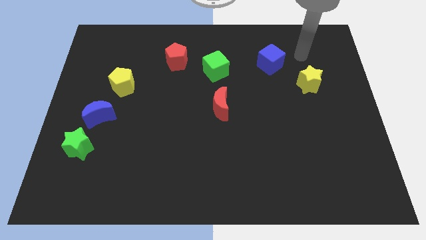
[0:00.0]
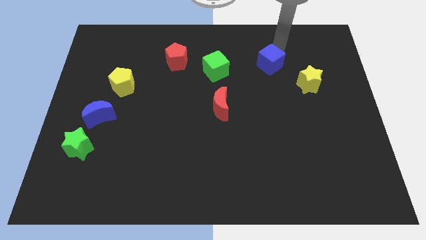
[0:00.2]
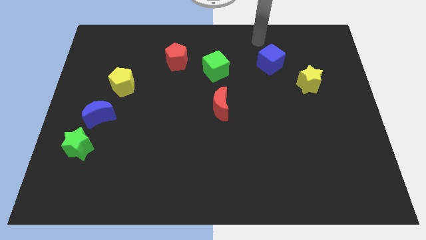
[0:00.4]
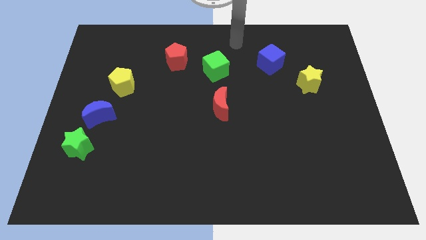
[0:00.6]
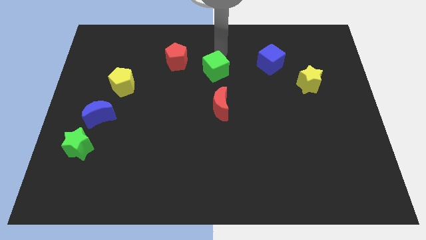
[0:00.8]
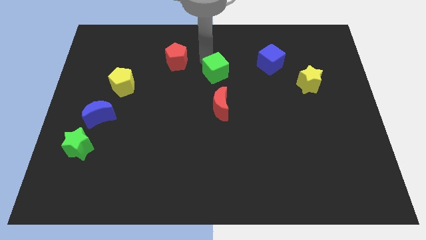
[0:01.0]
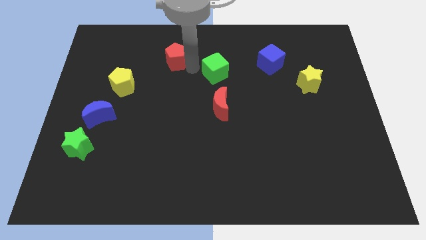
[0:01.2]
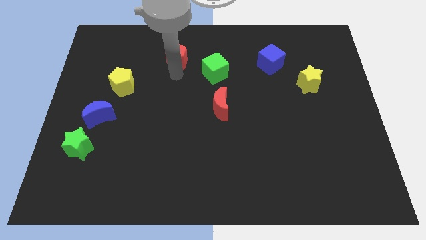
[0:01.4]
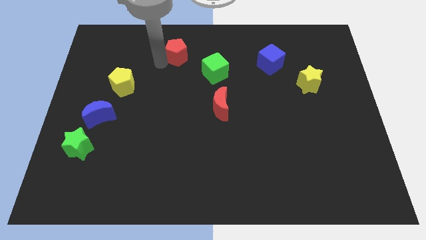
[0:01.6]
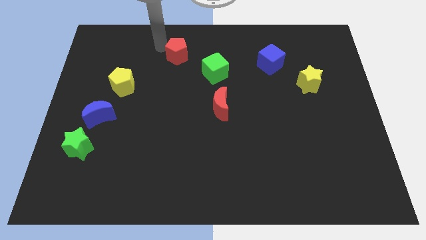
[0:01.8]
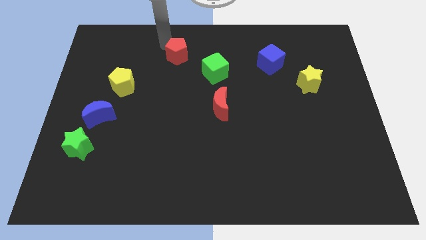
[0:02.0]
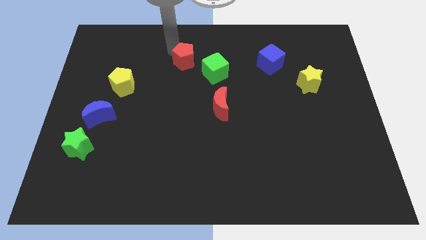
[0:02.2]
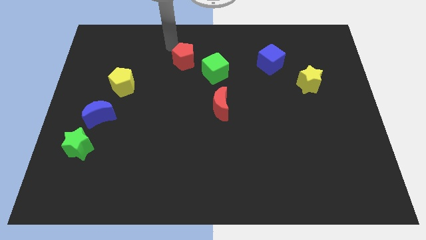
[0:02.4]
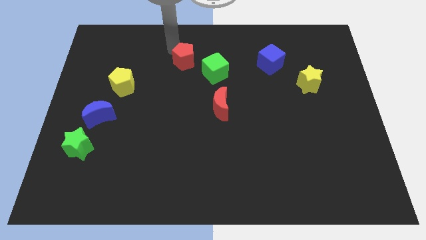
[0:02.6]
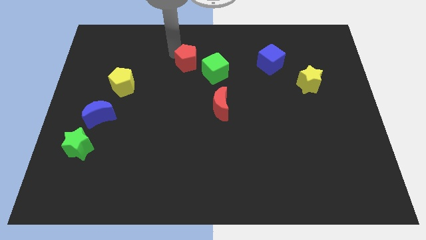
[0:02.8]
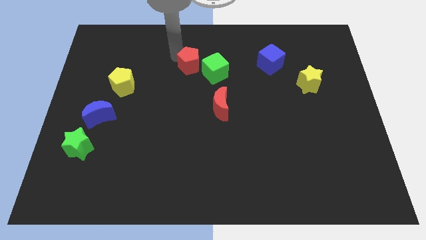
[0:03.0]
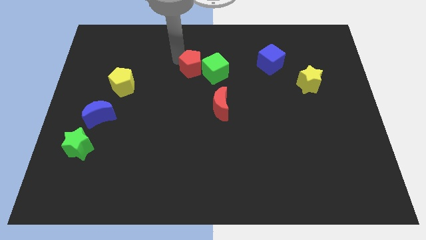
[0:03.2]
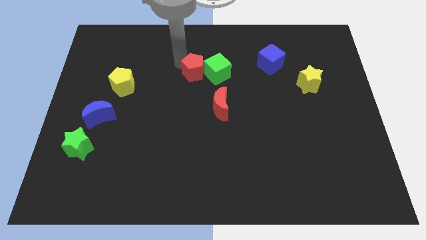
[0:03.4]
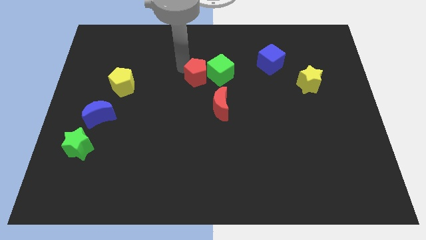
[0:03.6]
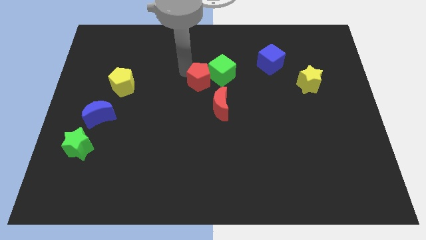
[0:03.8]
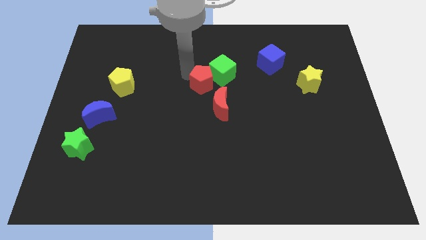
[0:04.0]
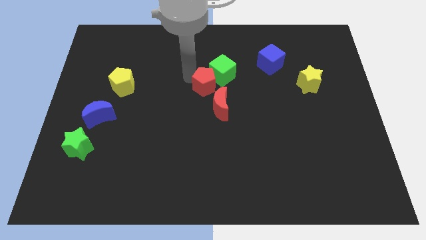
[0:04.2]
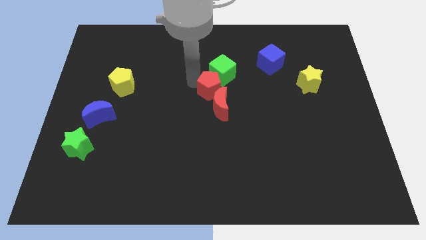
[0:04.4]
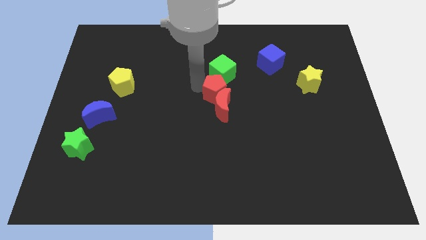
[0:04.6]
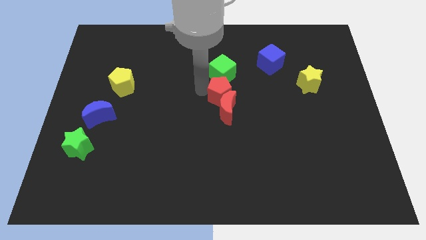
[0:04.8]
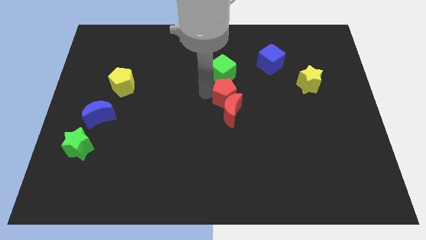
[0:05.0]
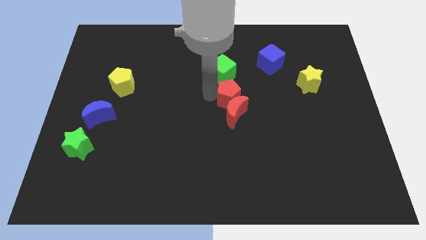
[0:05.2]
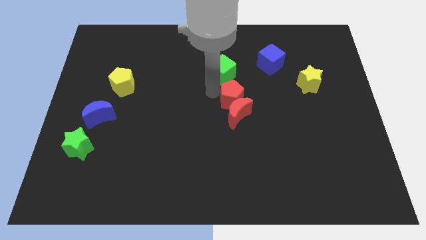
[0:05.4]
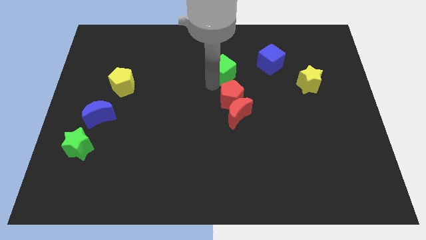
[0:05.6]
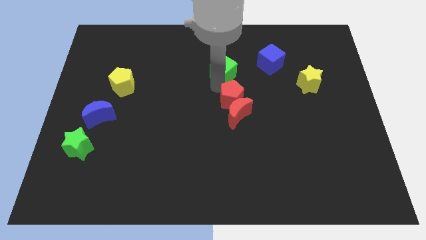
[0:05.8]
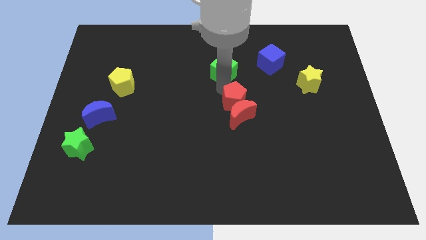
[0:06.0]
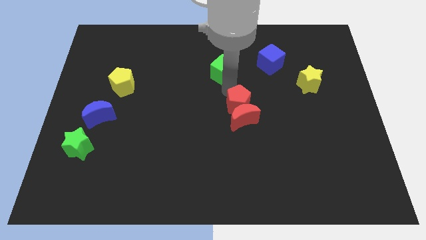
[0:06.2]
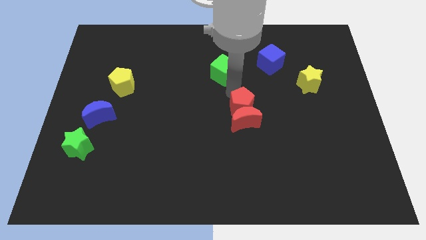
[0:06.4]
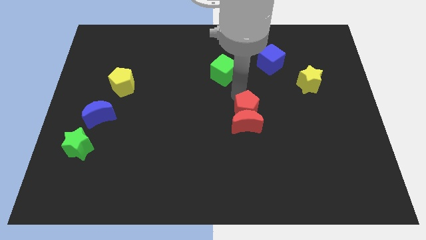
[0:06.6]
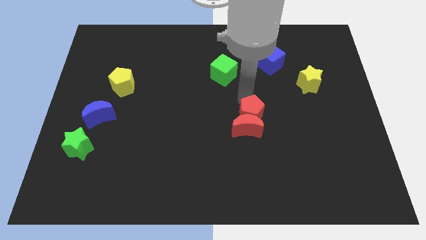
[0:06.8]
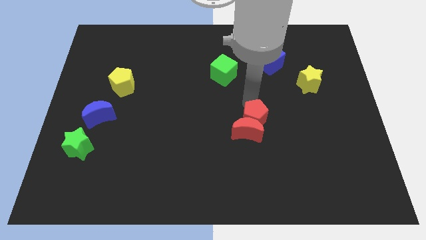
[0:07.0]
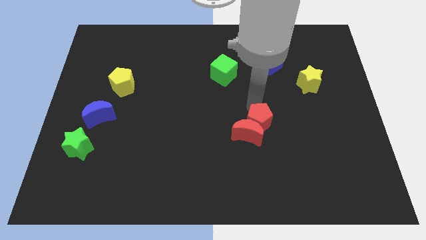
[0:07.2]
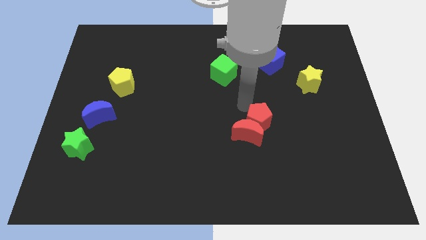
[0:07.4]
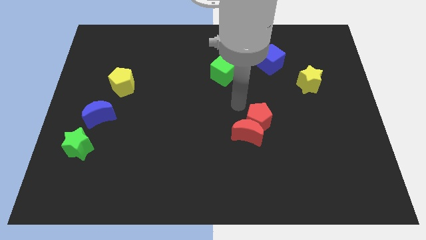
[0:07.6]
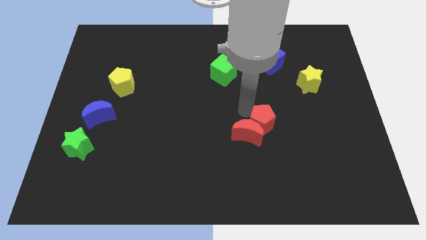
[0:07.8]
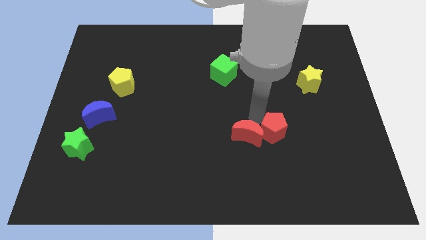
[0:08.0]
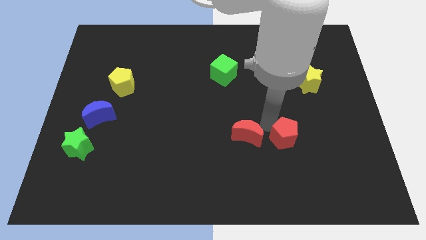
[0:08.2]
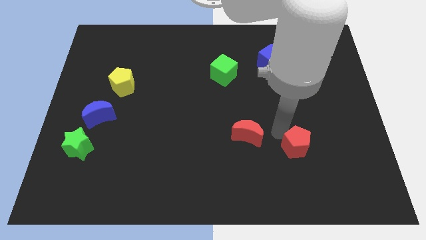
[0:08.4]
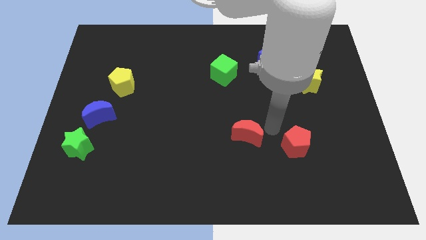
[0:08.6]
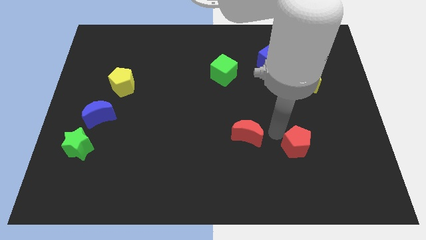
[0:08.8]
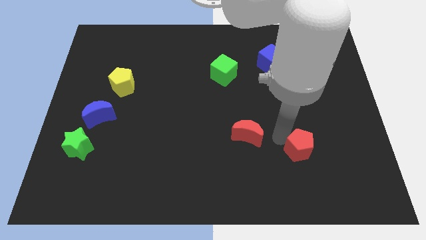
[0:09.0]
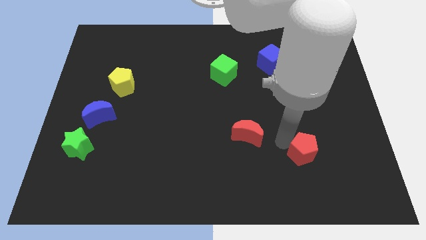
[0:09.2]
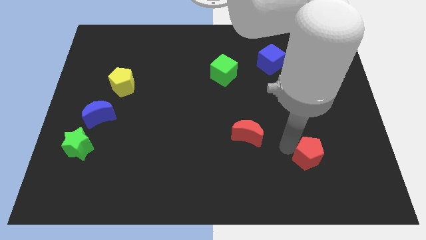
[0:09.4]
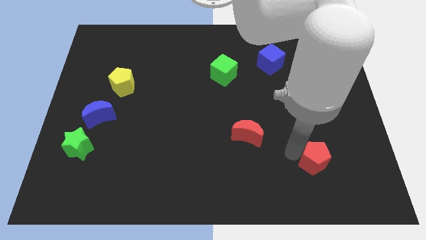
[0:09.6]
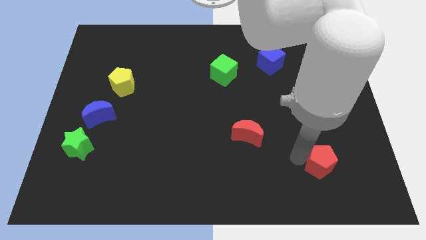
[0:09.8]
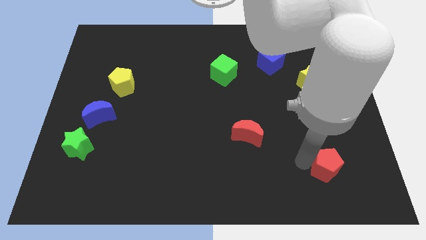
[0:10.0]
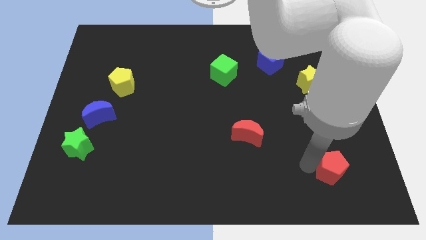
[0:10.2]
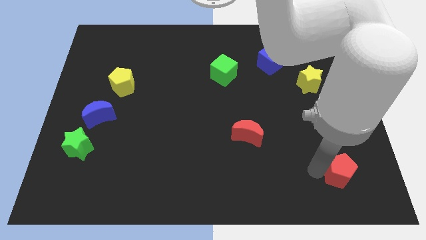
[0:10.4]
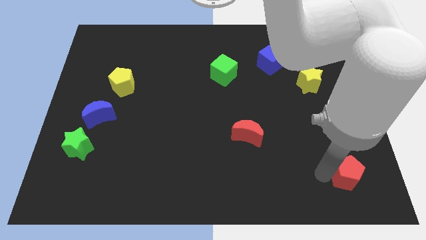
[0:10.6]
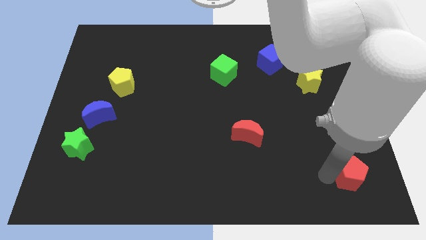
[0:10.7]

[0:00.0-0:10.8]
push the red pentagon to the bottom right corner

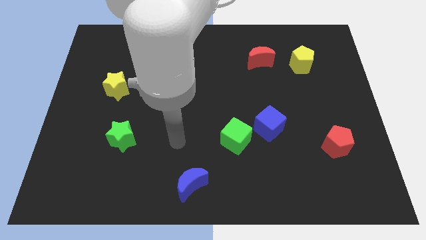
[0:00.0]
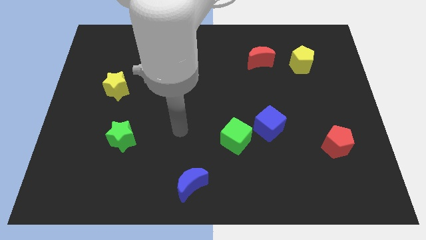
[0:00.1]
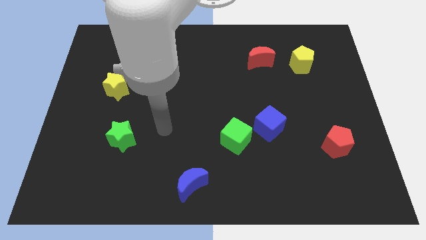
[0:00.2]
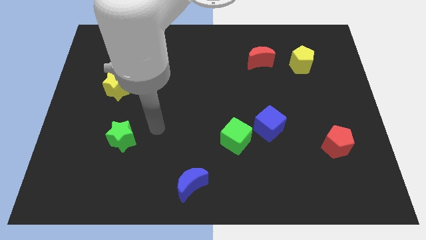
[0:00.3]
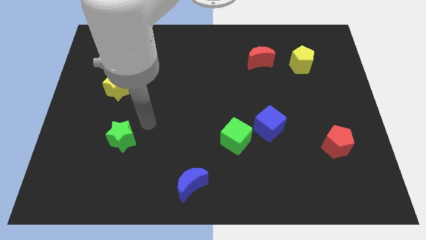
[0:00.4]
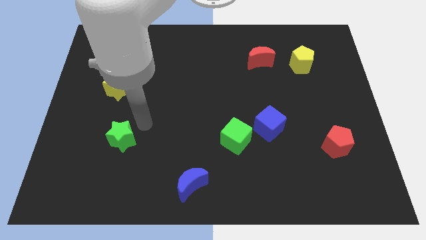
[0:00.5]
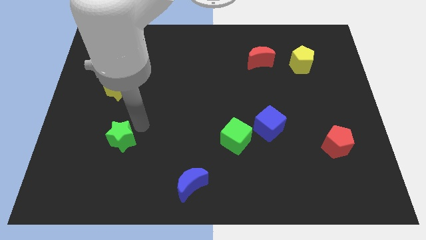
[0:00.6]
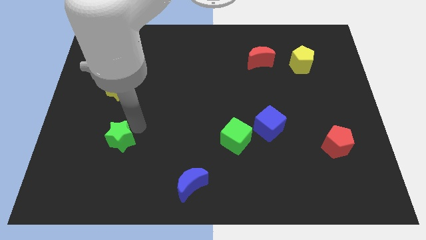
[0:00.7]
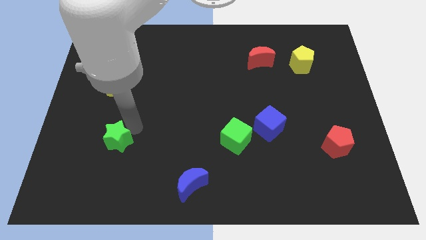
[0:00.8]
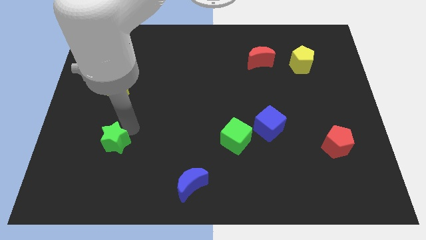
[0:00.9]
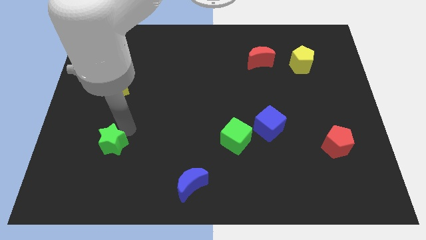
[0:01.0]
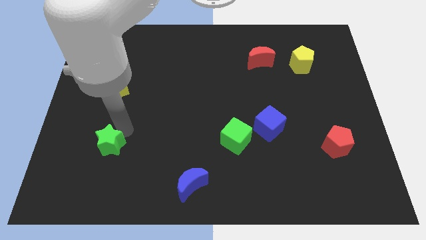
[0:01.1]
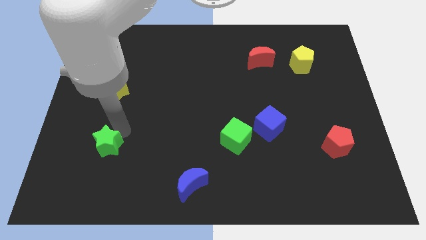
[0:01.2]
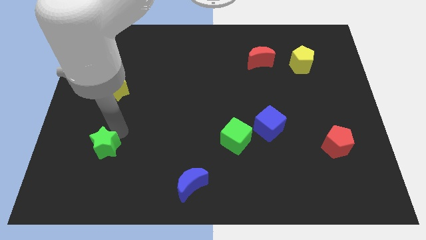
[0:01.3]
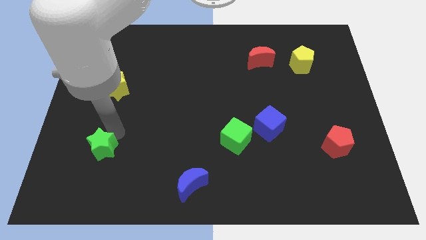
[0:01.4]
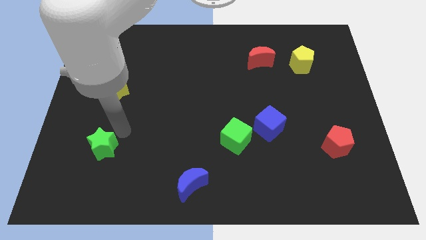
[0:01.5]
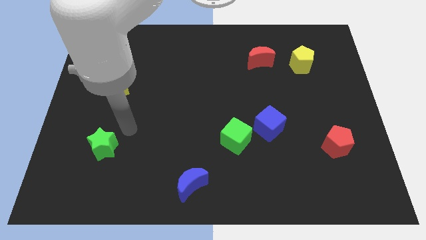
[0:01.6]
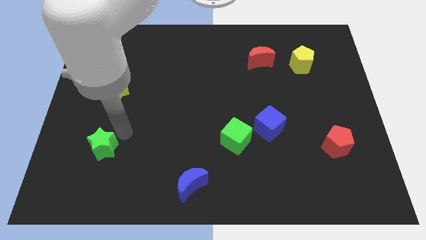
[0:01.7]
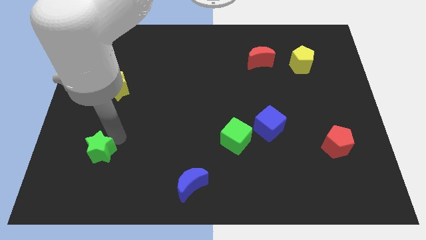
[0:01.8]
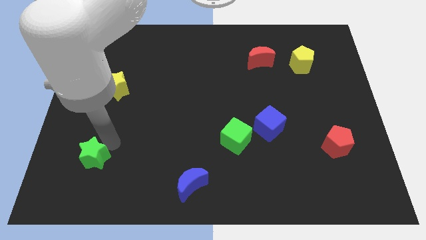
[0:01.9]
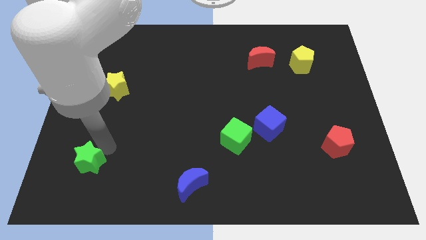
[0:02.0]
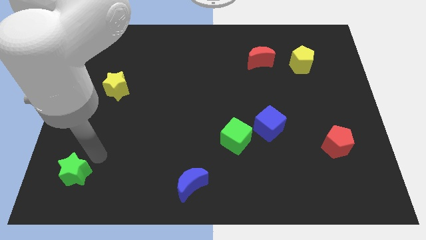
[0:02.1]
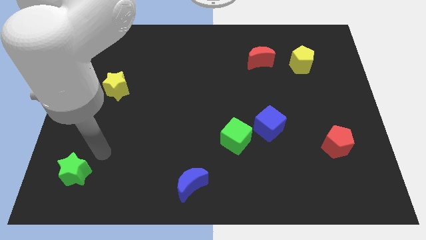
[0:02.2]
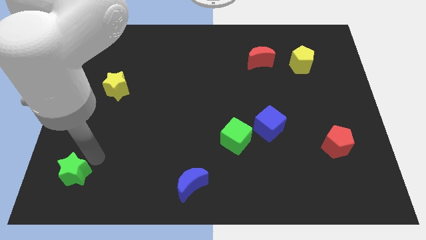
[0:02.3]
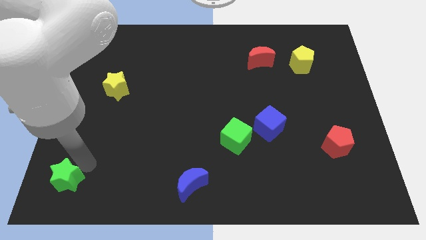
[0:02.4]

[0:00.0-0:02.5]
push the green star to the bottom left of the board
